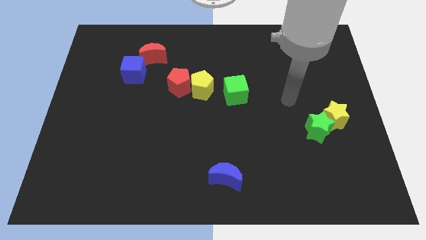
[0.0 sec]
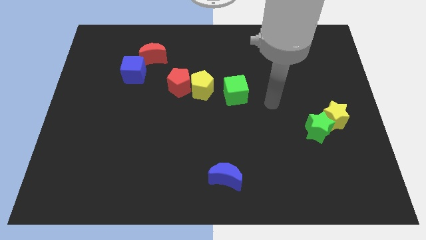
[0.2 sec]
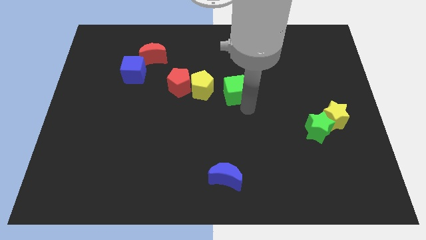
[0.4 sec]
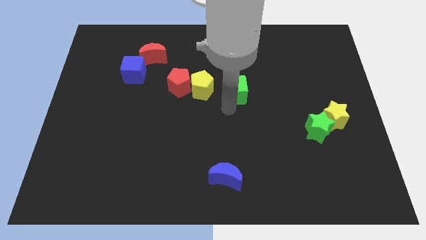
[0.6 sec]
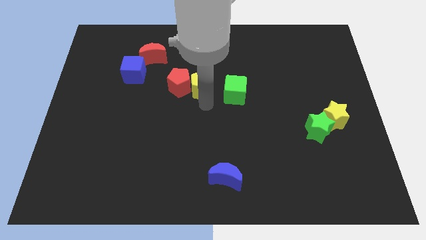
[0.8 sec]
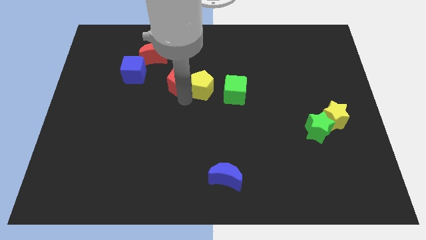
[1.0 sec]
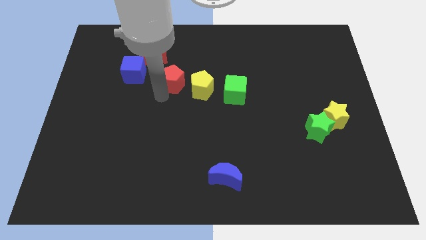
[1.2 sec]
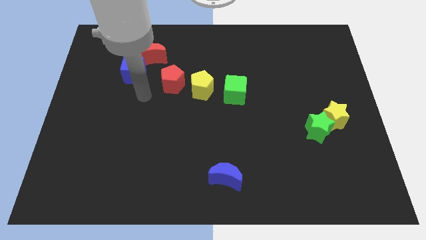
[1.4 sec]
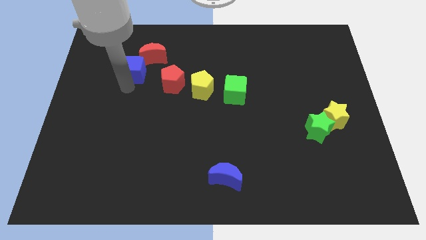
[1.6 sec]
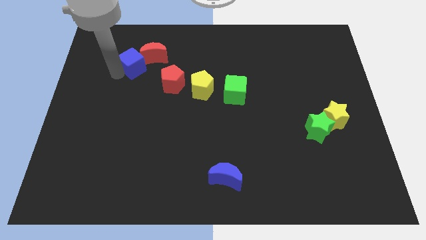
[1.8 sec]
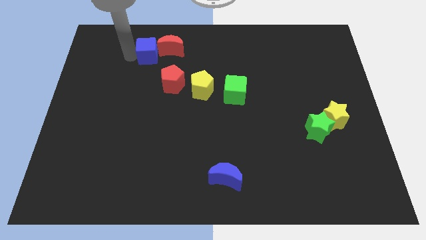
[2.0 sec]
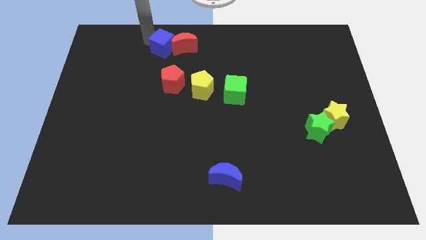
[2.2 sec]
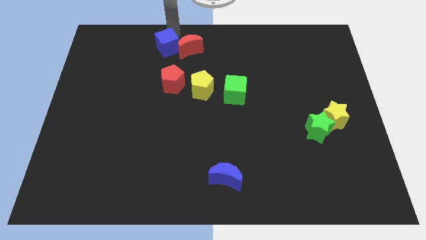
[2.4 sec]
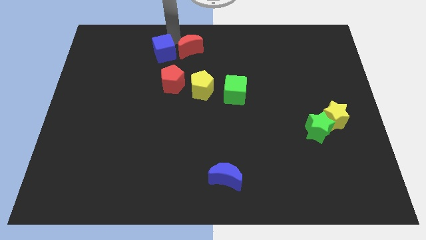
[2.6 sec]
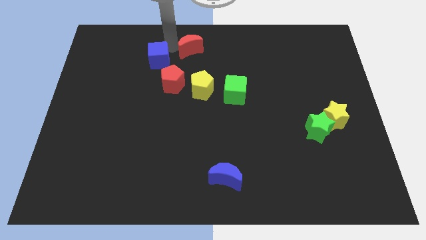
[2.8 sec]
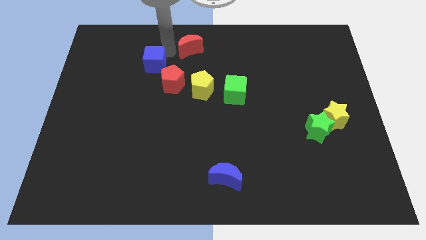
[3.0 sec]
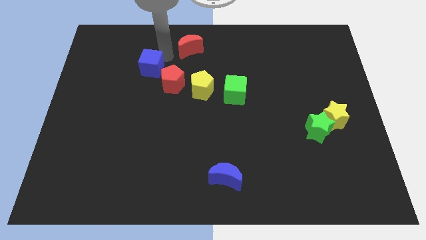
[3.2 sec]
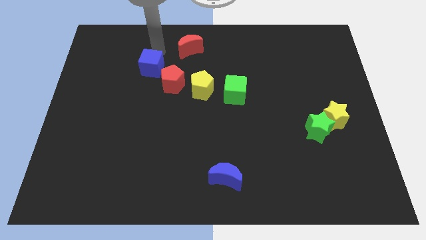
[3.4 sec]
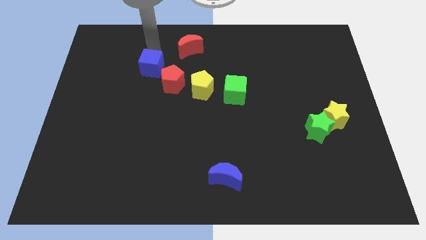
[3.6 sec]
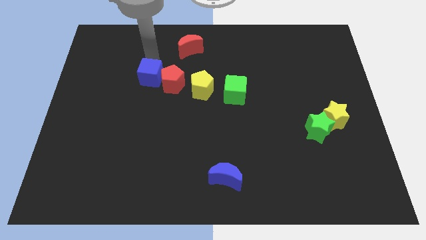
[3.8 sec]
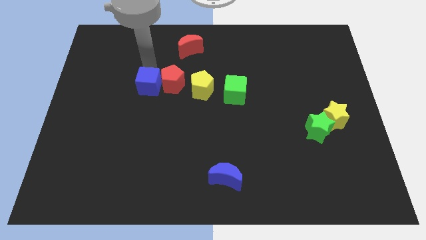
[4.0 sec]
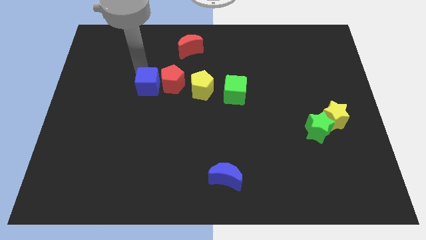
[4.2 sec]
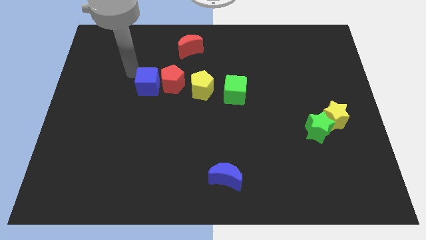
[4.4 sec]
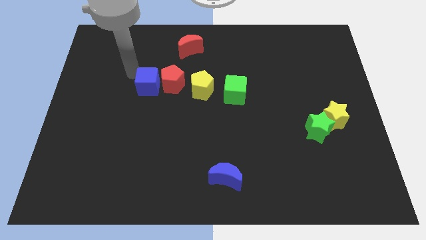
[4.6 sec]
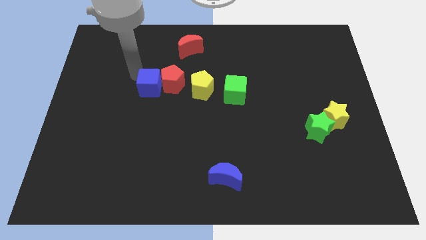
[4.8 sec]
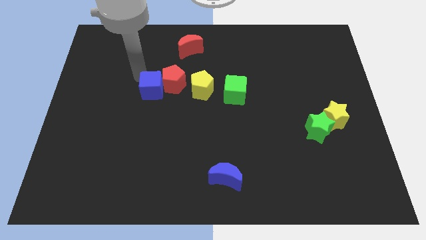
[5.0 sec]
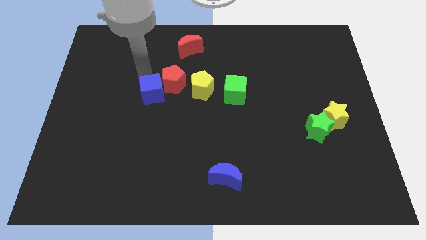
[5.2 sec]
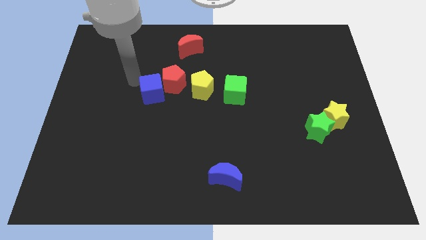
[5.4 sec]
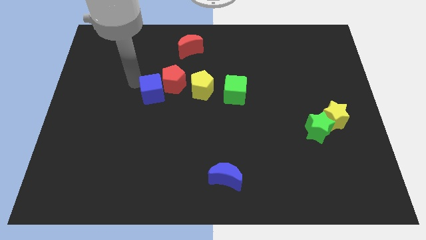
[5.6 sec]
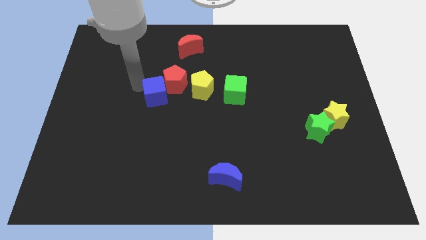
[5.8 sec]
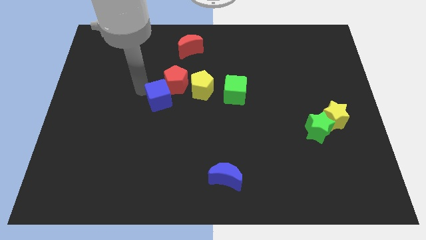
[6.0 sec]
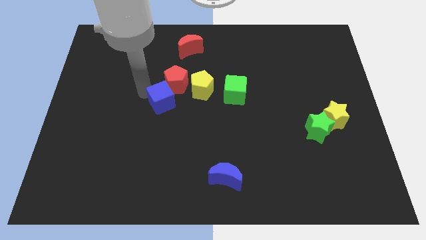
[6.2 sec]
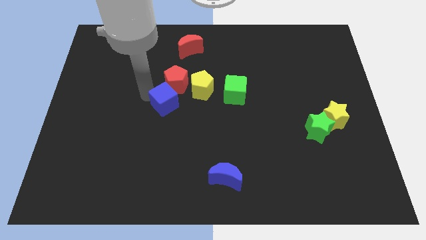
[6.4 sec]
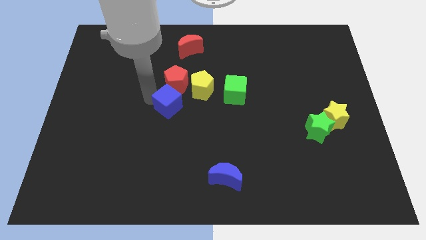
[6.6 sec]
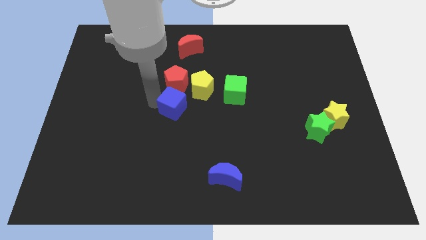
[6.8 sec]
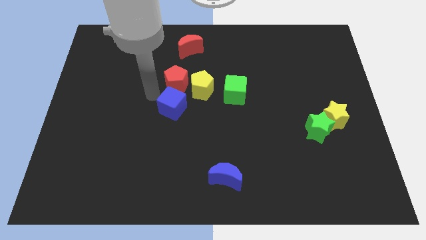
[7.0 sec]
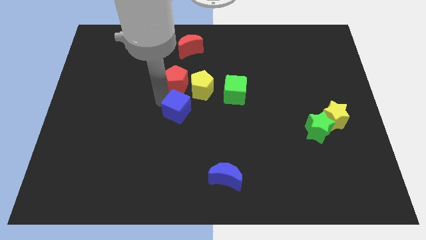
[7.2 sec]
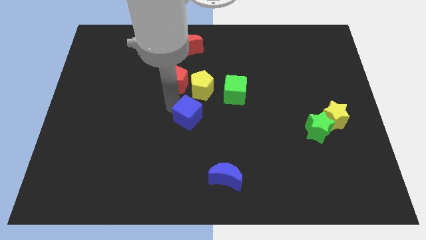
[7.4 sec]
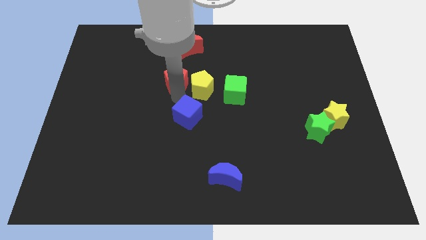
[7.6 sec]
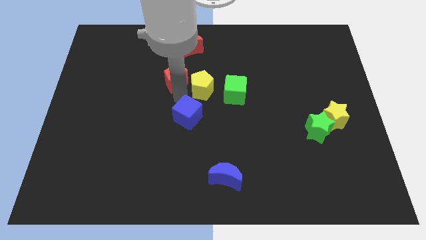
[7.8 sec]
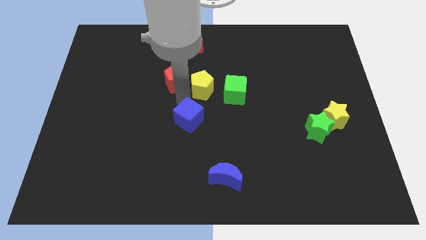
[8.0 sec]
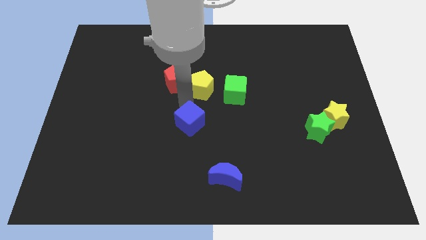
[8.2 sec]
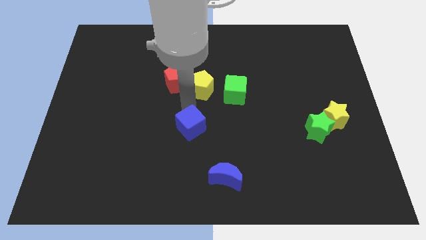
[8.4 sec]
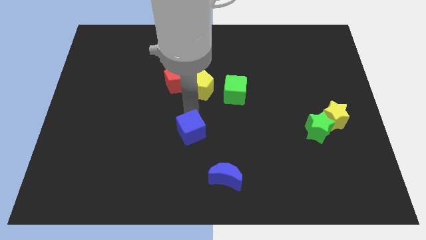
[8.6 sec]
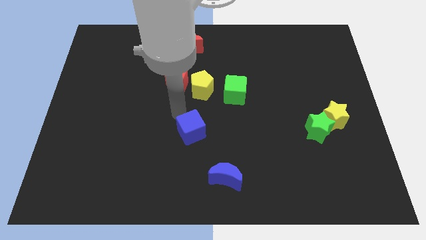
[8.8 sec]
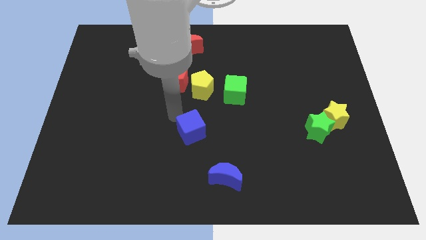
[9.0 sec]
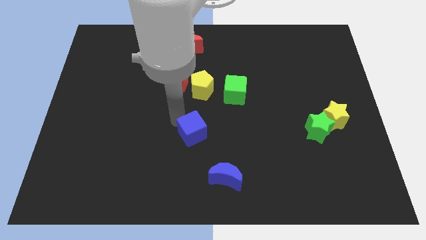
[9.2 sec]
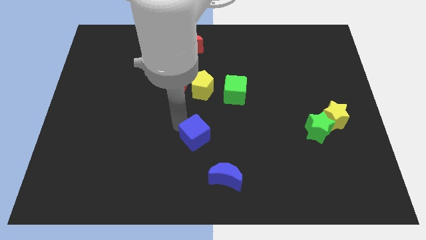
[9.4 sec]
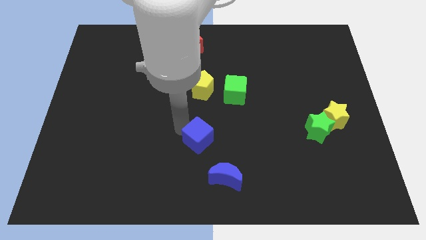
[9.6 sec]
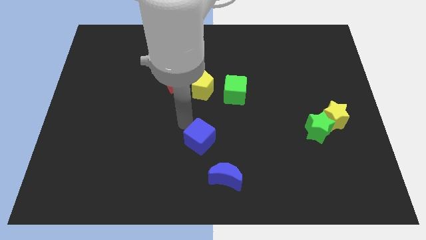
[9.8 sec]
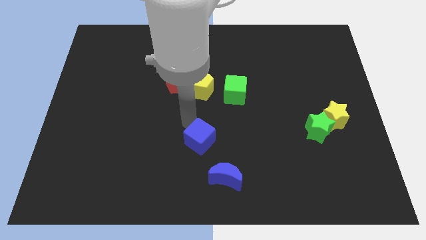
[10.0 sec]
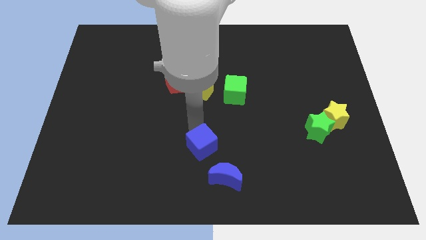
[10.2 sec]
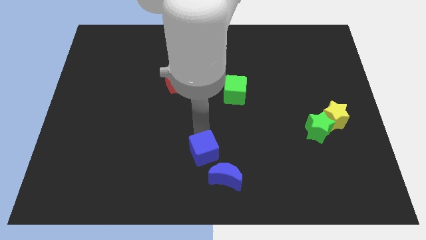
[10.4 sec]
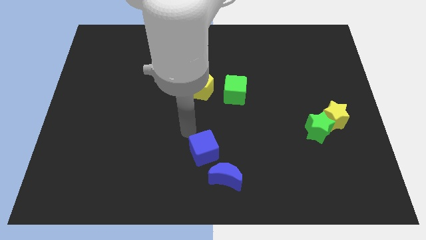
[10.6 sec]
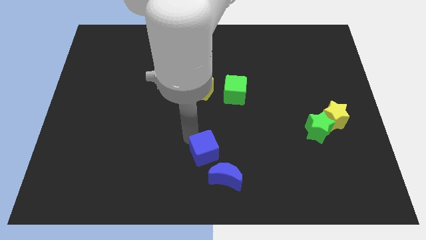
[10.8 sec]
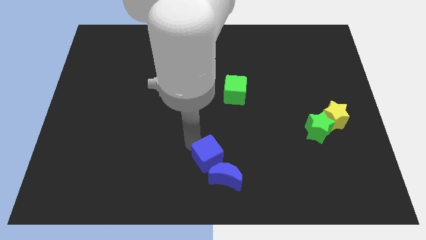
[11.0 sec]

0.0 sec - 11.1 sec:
move the blue cube next to the blue moon

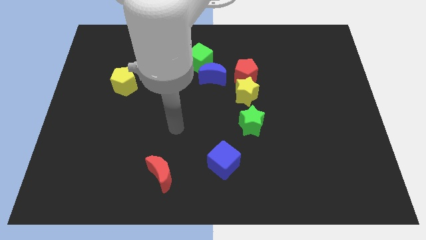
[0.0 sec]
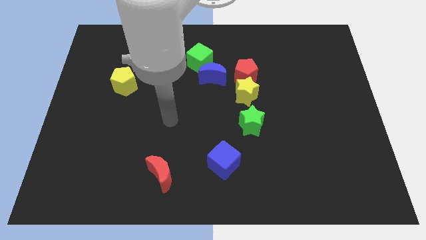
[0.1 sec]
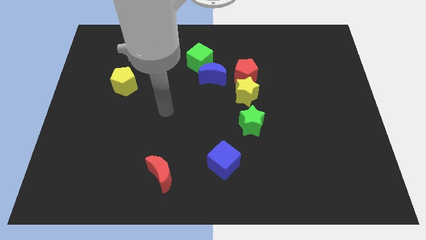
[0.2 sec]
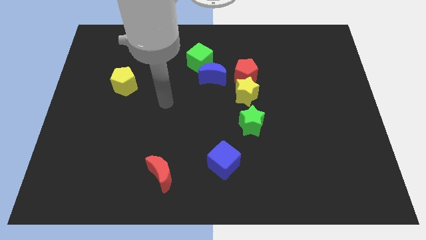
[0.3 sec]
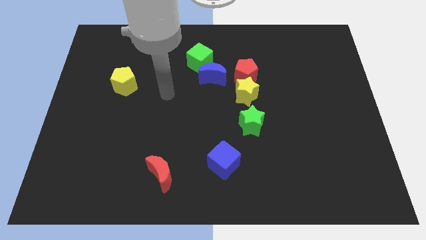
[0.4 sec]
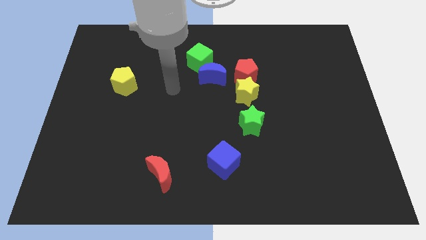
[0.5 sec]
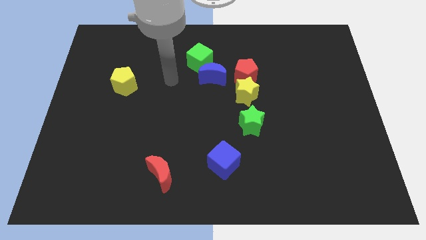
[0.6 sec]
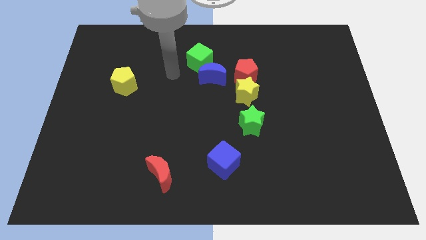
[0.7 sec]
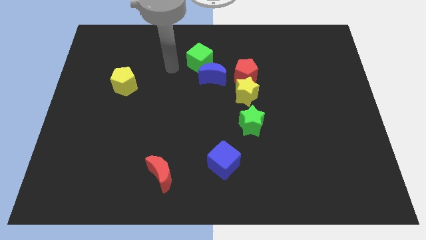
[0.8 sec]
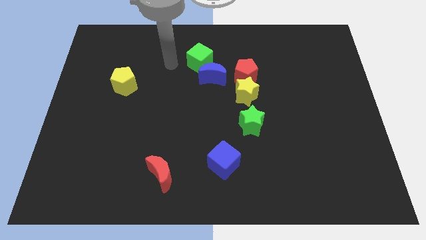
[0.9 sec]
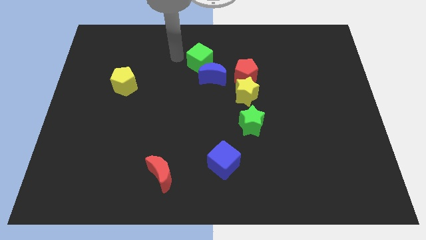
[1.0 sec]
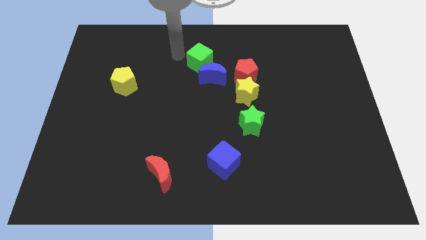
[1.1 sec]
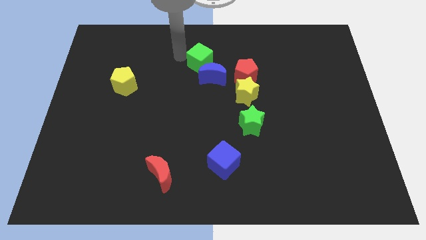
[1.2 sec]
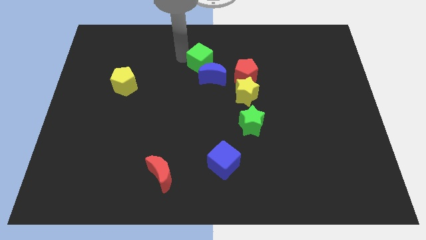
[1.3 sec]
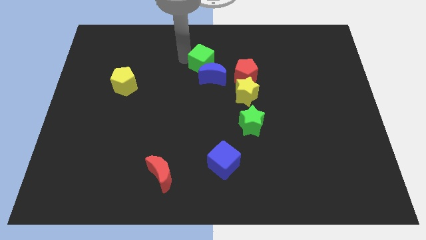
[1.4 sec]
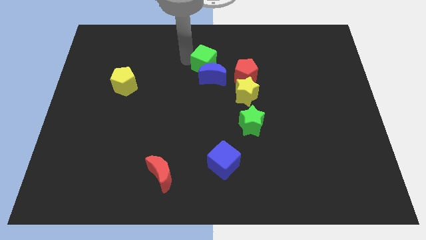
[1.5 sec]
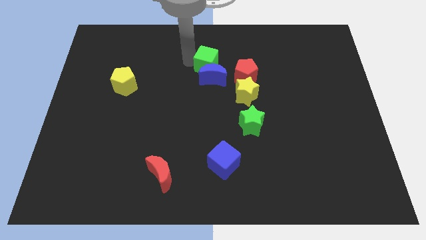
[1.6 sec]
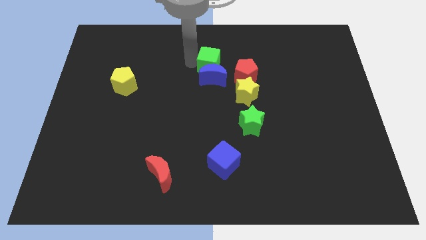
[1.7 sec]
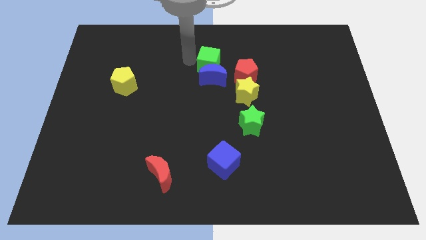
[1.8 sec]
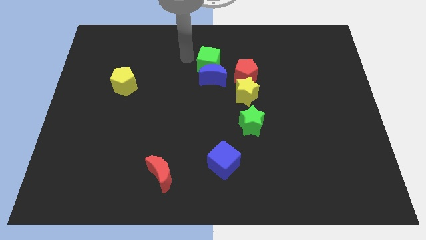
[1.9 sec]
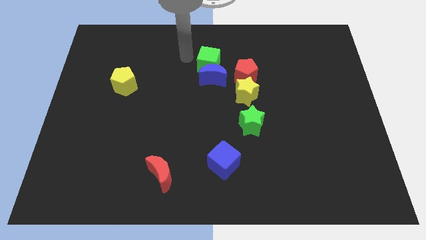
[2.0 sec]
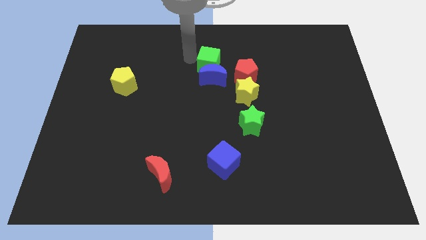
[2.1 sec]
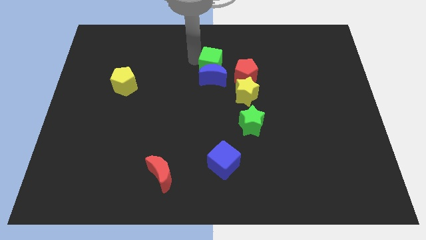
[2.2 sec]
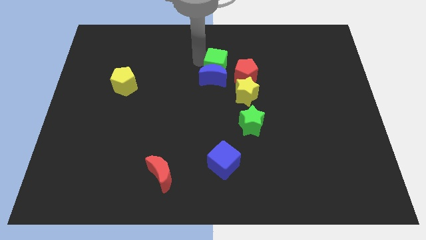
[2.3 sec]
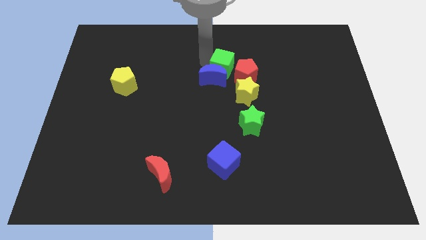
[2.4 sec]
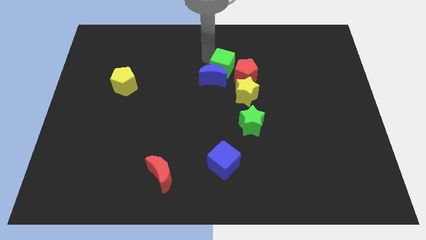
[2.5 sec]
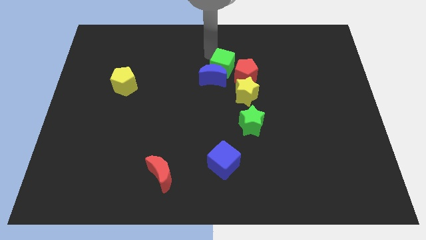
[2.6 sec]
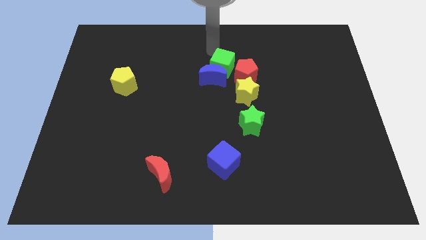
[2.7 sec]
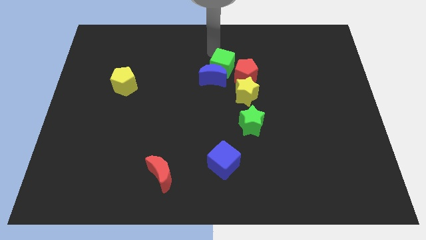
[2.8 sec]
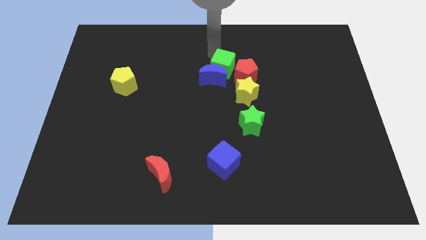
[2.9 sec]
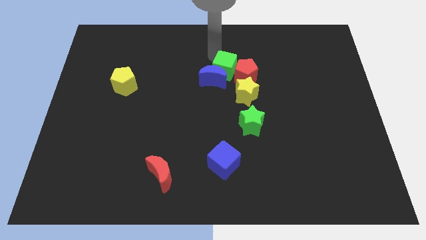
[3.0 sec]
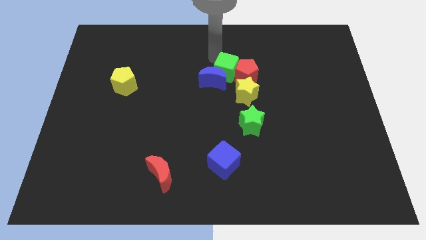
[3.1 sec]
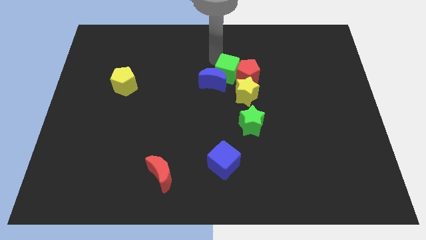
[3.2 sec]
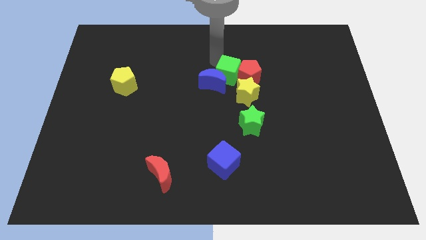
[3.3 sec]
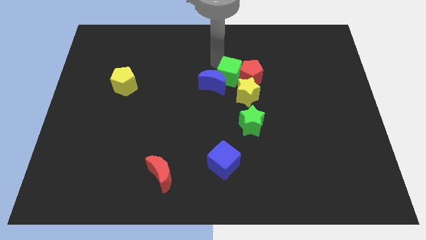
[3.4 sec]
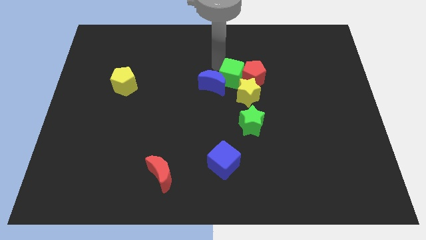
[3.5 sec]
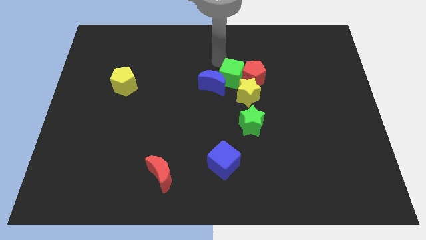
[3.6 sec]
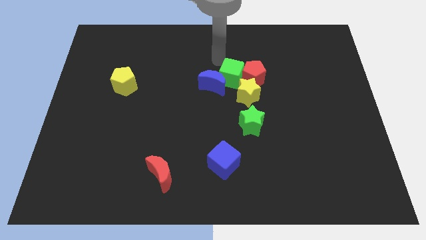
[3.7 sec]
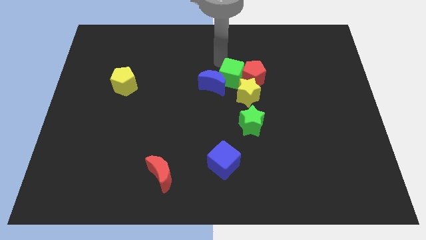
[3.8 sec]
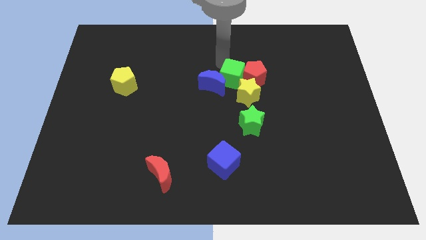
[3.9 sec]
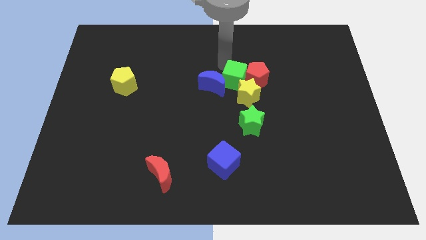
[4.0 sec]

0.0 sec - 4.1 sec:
push the green cube to the yellow star
